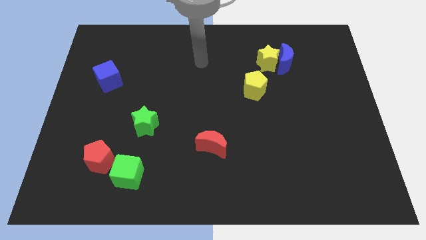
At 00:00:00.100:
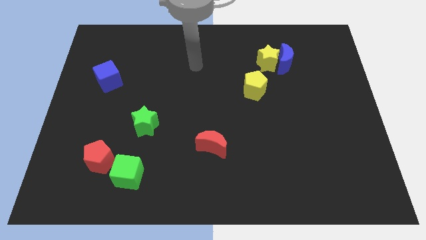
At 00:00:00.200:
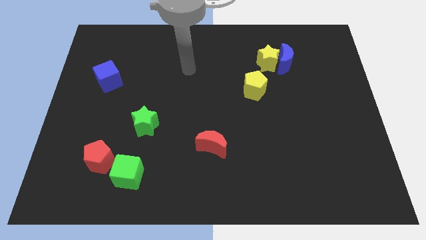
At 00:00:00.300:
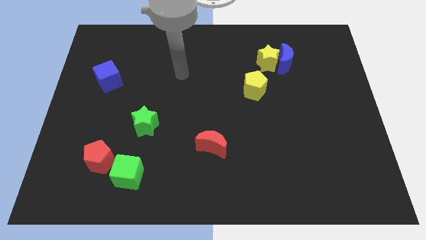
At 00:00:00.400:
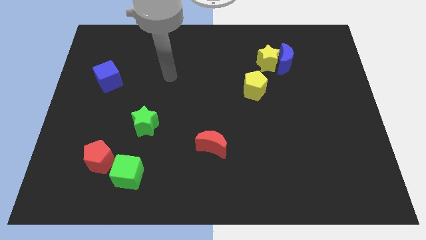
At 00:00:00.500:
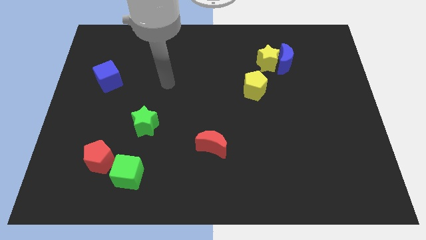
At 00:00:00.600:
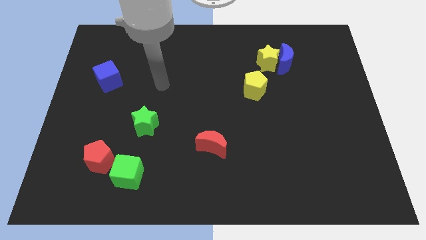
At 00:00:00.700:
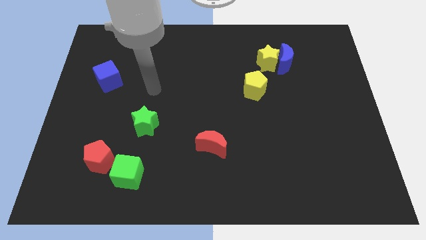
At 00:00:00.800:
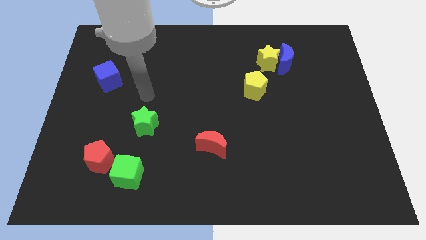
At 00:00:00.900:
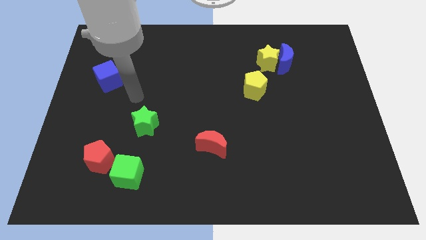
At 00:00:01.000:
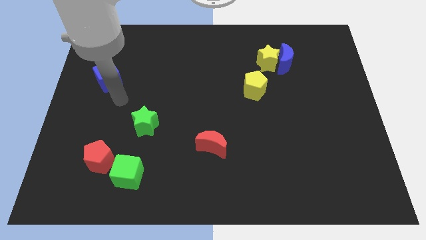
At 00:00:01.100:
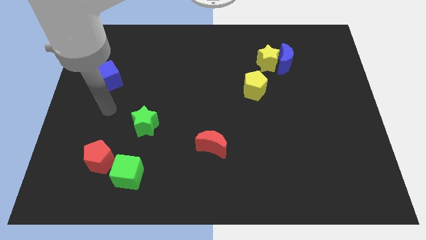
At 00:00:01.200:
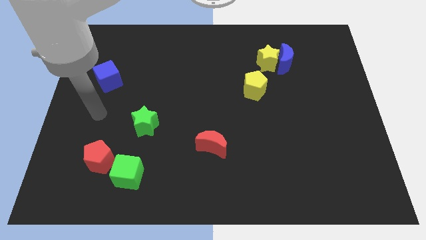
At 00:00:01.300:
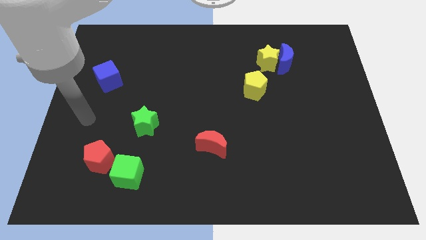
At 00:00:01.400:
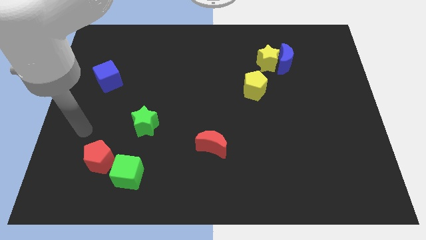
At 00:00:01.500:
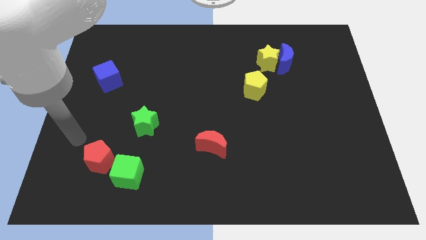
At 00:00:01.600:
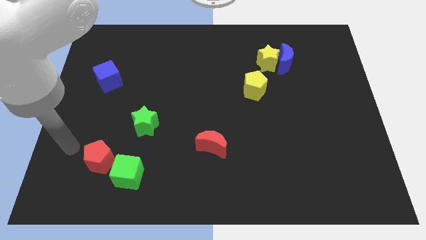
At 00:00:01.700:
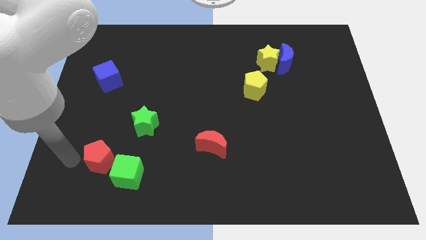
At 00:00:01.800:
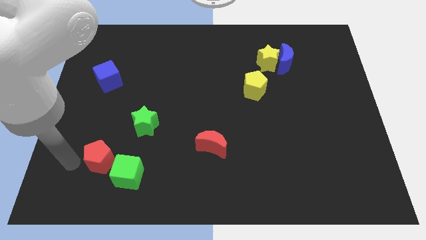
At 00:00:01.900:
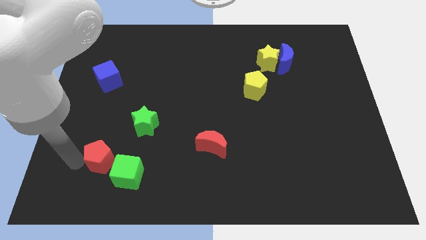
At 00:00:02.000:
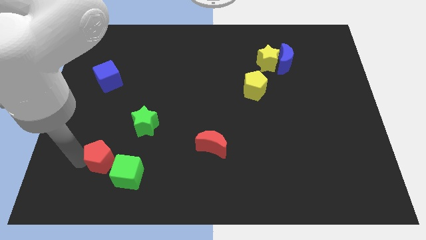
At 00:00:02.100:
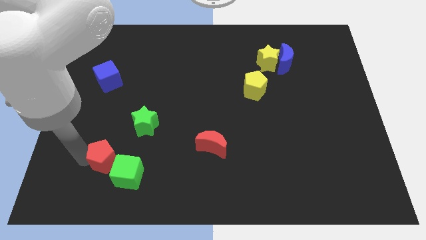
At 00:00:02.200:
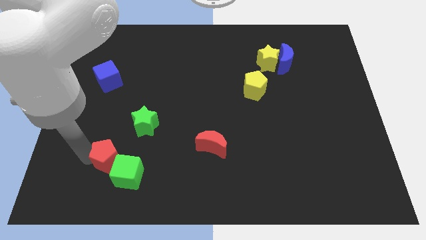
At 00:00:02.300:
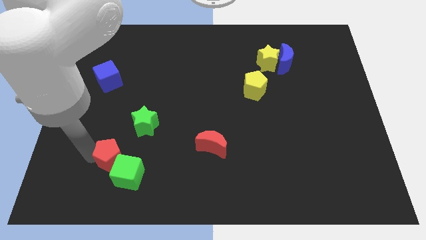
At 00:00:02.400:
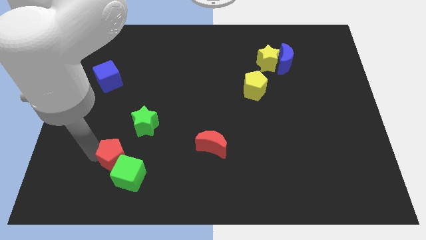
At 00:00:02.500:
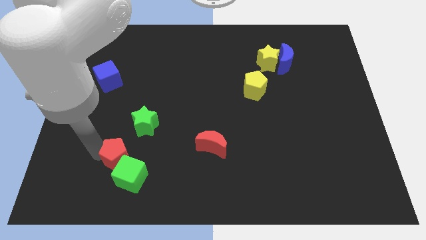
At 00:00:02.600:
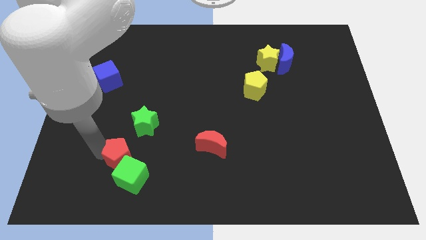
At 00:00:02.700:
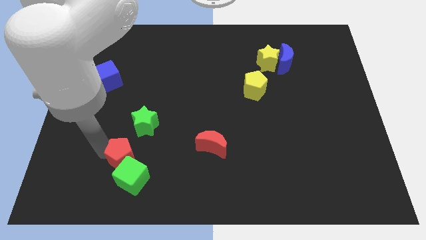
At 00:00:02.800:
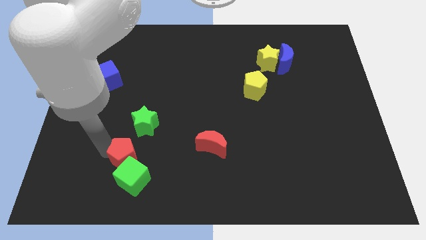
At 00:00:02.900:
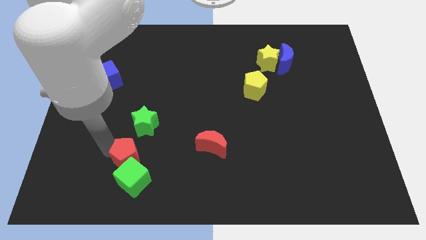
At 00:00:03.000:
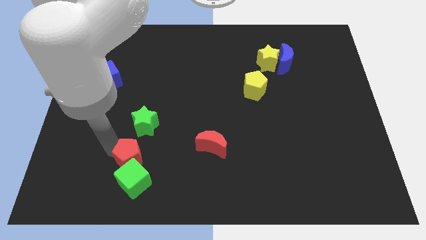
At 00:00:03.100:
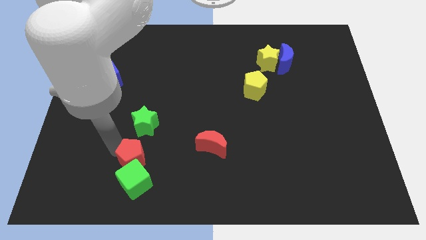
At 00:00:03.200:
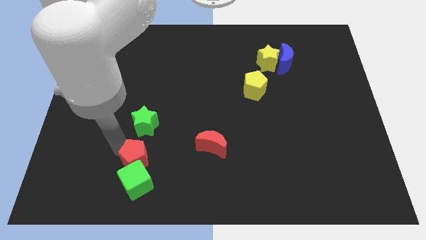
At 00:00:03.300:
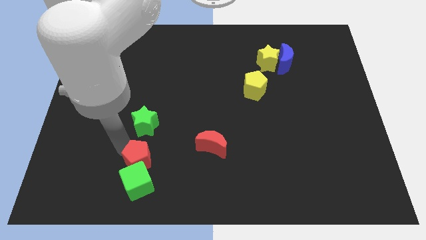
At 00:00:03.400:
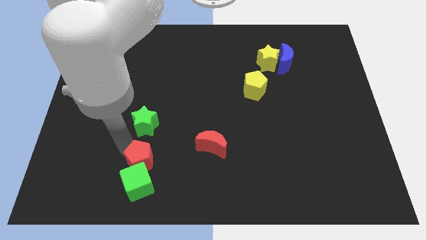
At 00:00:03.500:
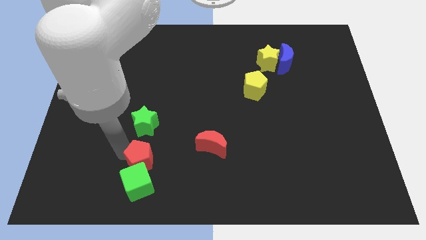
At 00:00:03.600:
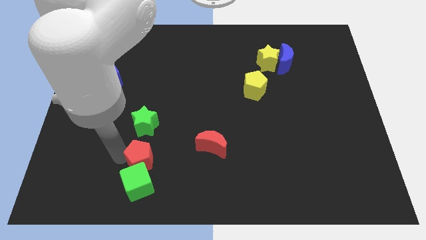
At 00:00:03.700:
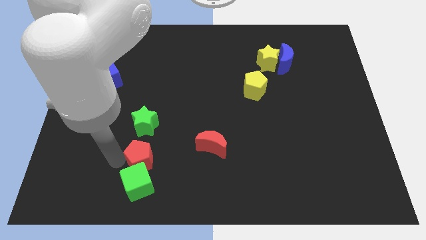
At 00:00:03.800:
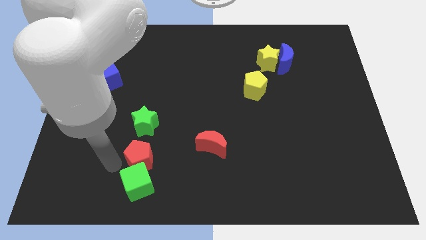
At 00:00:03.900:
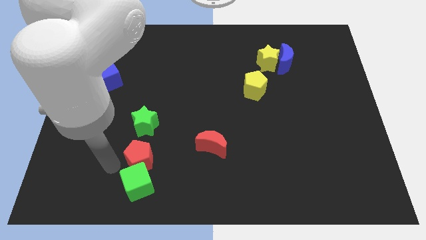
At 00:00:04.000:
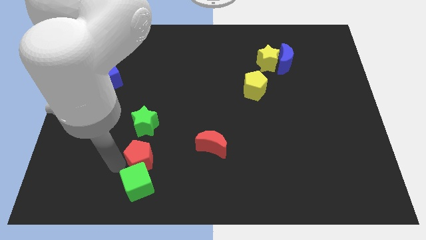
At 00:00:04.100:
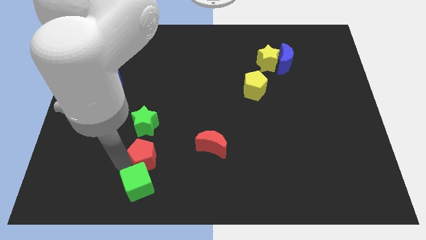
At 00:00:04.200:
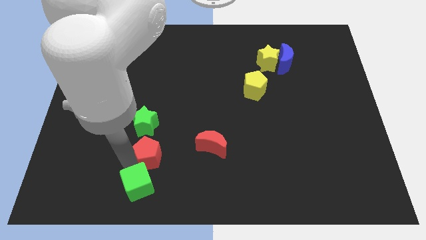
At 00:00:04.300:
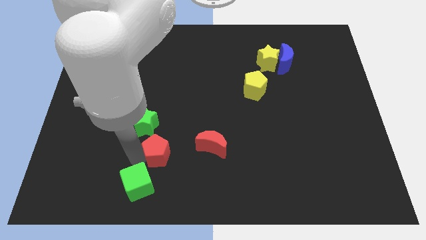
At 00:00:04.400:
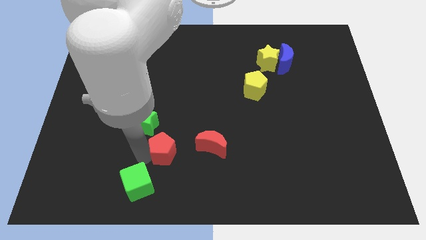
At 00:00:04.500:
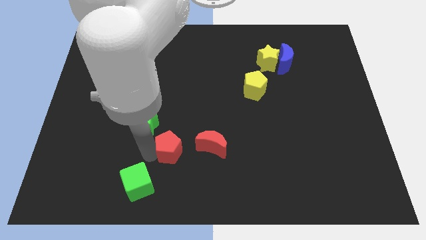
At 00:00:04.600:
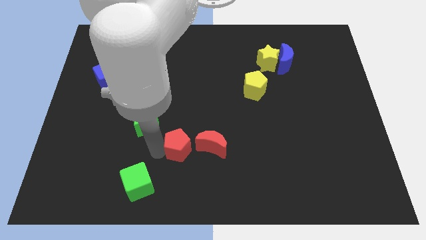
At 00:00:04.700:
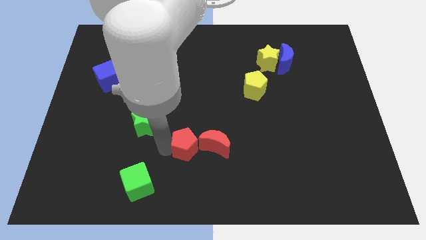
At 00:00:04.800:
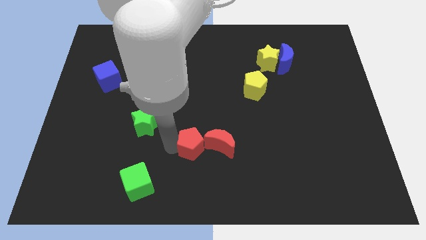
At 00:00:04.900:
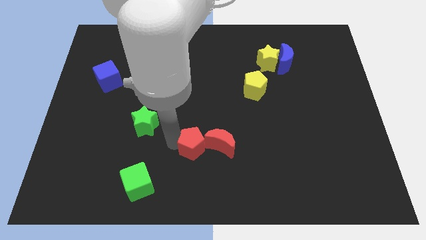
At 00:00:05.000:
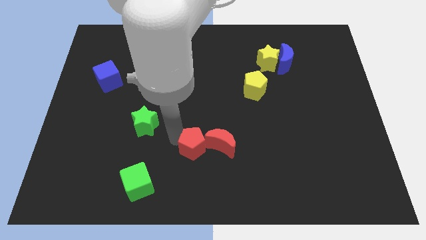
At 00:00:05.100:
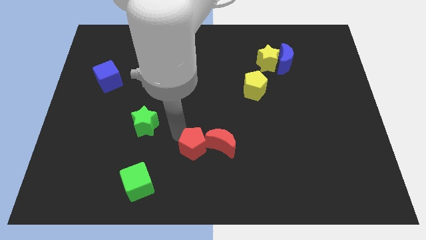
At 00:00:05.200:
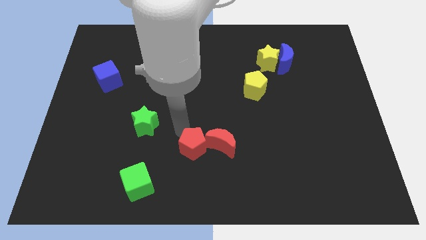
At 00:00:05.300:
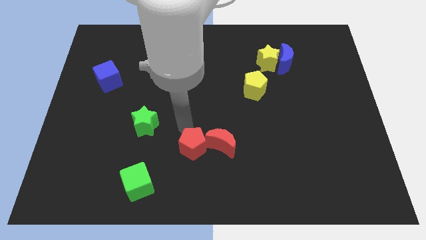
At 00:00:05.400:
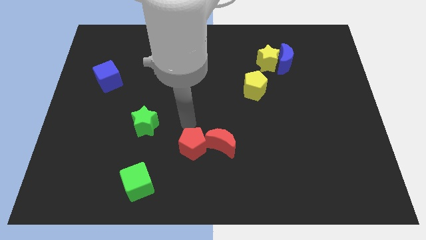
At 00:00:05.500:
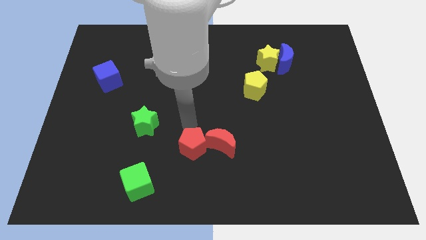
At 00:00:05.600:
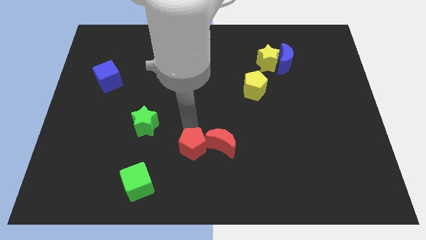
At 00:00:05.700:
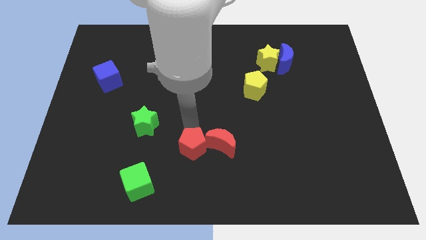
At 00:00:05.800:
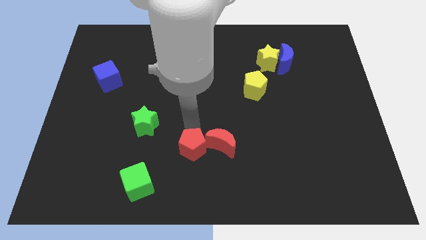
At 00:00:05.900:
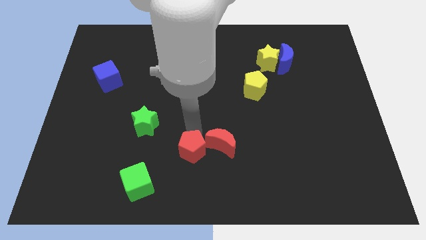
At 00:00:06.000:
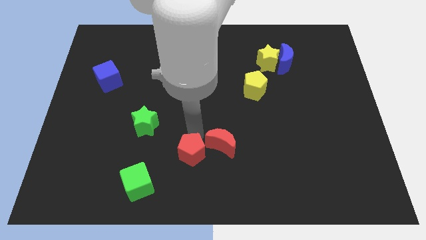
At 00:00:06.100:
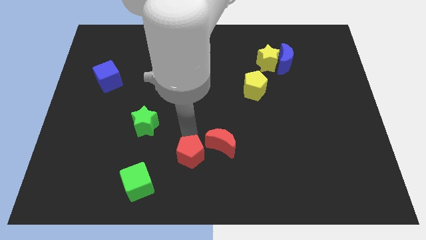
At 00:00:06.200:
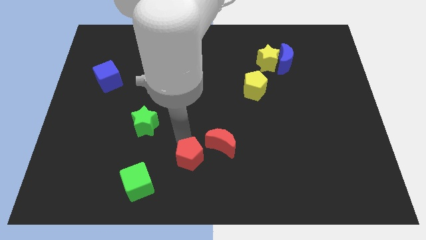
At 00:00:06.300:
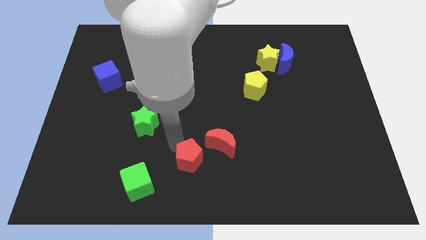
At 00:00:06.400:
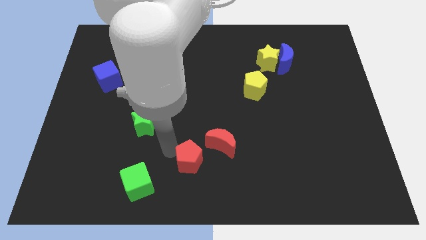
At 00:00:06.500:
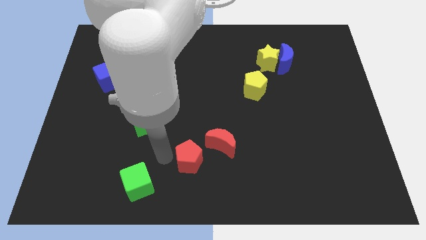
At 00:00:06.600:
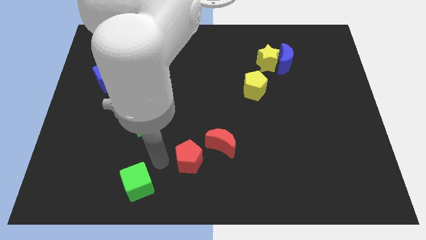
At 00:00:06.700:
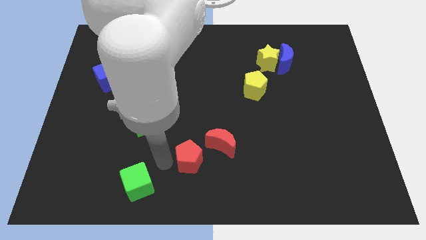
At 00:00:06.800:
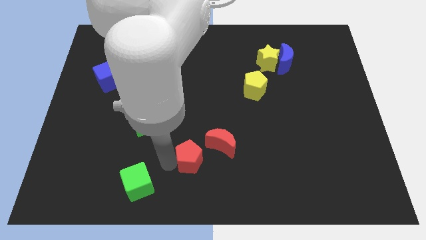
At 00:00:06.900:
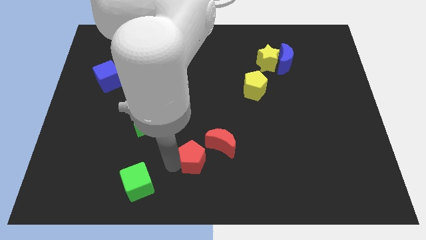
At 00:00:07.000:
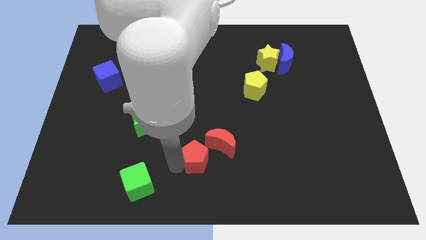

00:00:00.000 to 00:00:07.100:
slide the red pentagon right

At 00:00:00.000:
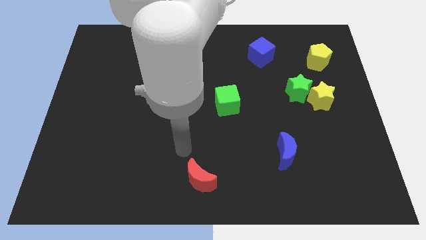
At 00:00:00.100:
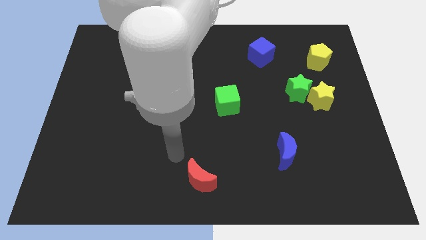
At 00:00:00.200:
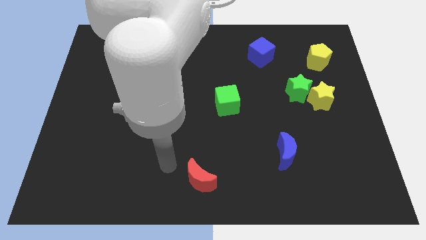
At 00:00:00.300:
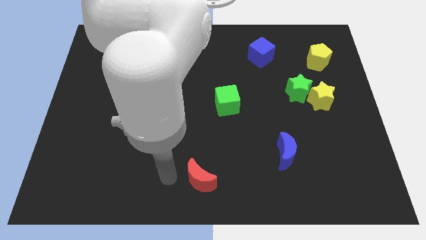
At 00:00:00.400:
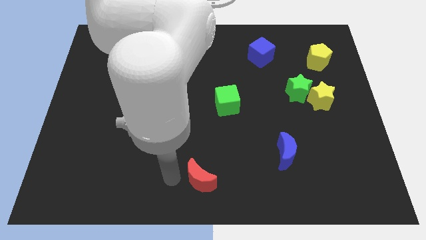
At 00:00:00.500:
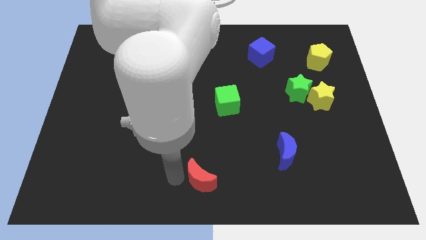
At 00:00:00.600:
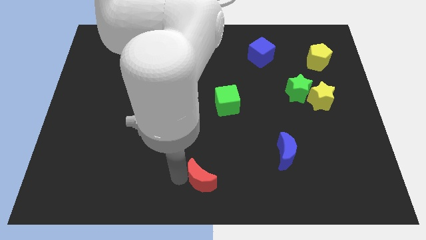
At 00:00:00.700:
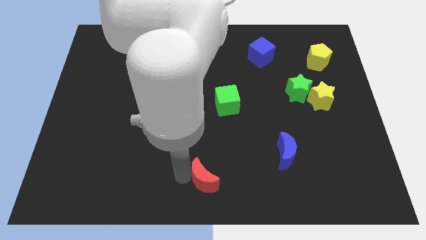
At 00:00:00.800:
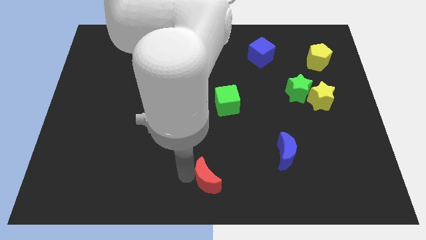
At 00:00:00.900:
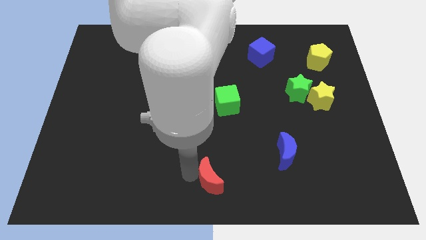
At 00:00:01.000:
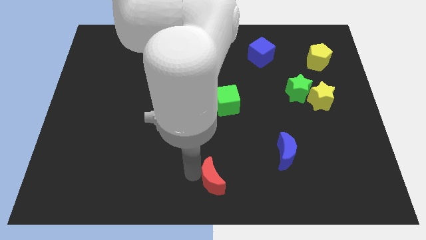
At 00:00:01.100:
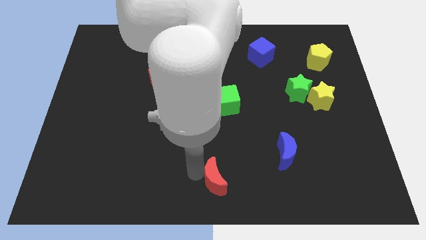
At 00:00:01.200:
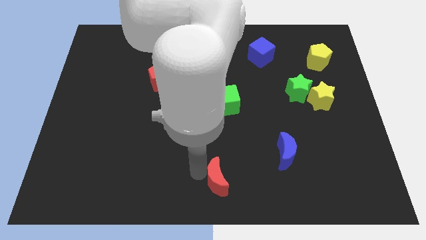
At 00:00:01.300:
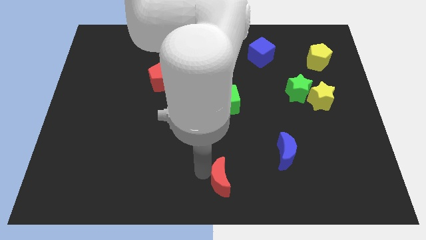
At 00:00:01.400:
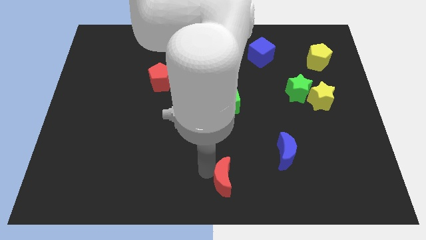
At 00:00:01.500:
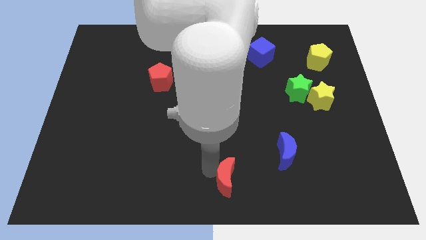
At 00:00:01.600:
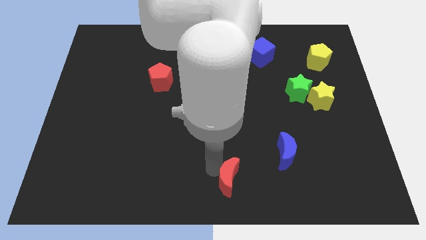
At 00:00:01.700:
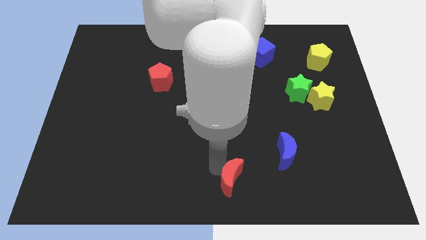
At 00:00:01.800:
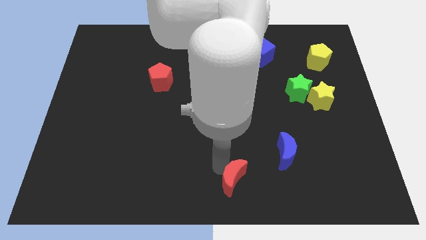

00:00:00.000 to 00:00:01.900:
move the red moon somewhat to the right
